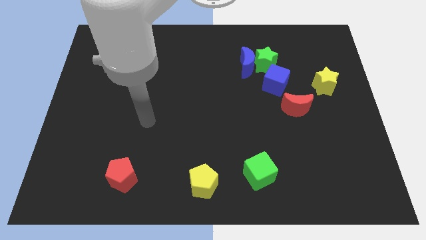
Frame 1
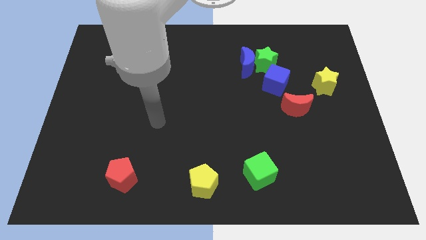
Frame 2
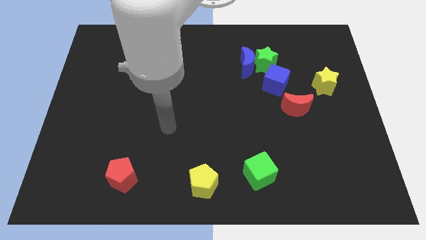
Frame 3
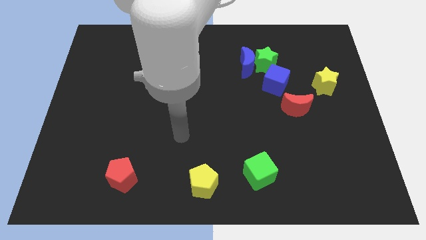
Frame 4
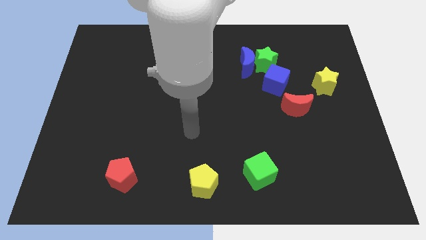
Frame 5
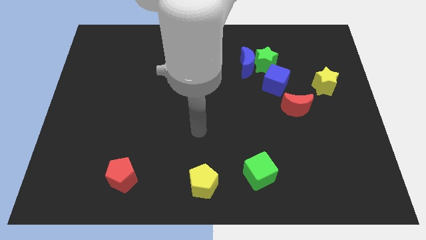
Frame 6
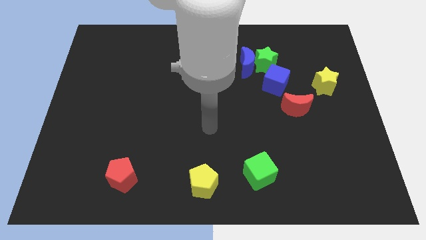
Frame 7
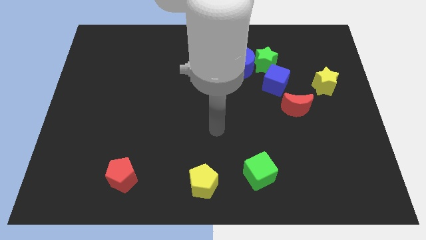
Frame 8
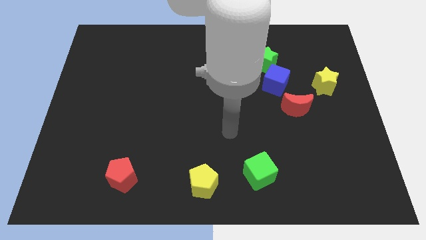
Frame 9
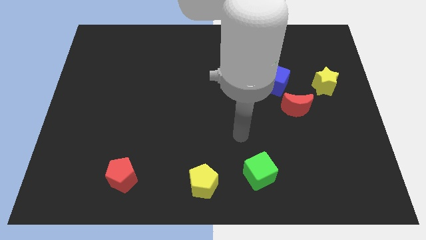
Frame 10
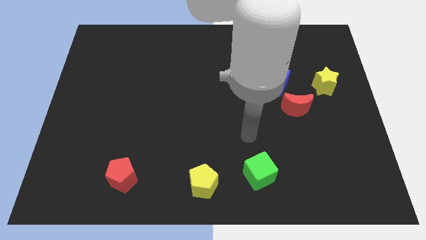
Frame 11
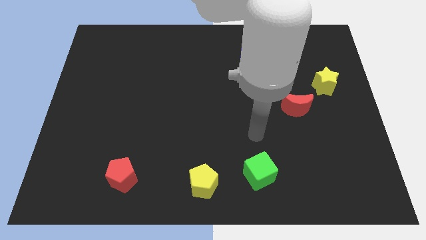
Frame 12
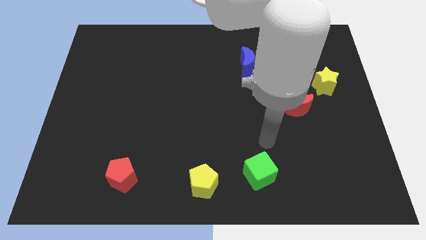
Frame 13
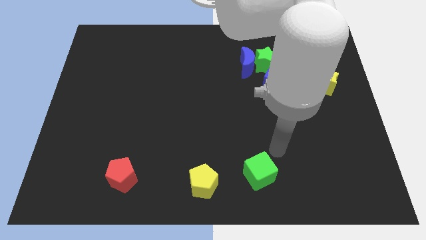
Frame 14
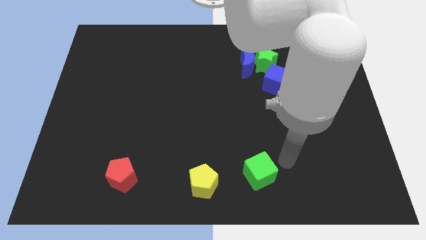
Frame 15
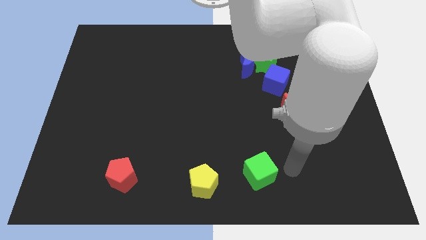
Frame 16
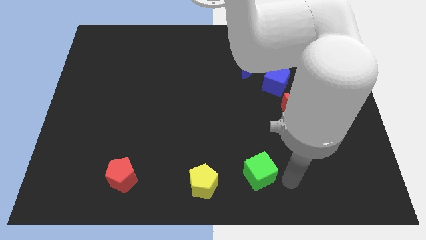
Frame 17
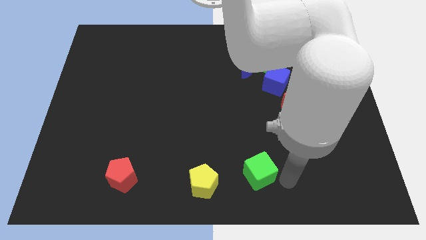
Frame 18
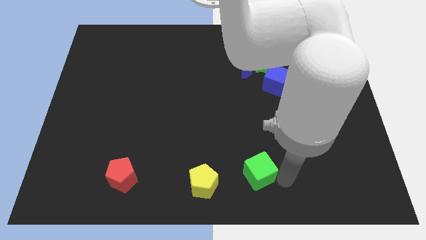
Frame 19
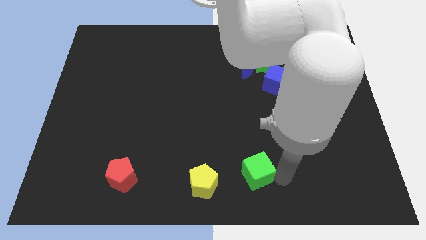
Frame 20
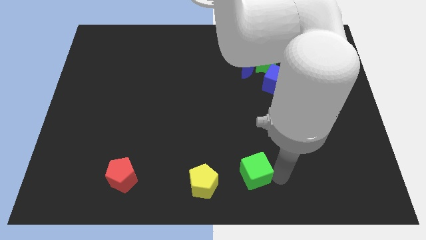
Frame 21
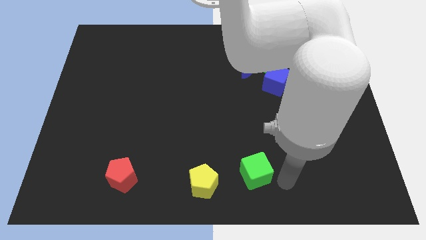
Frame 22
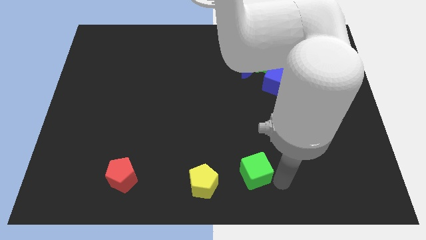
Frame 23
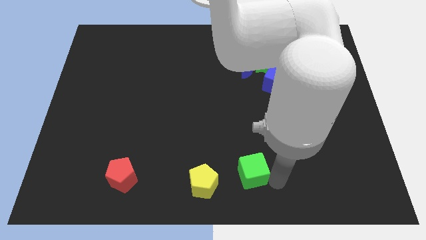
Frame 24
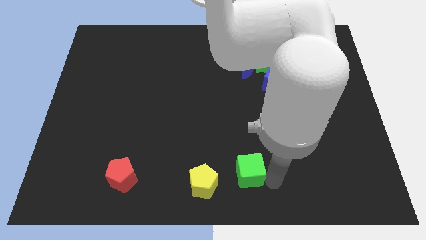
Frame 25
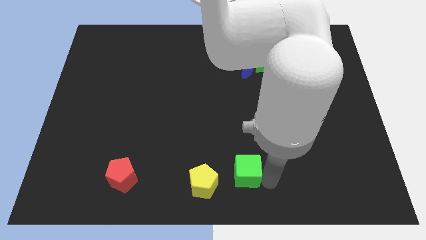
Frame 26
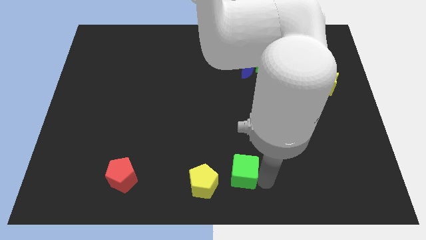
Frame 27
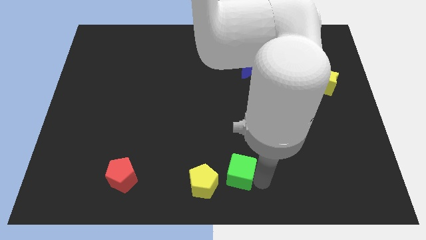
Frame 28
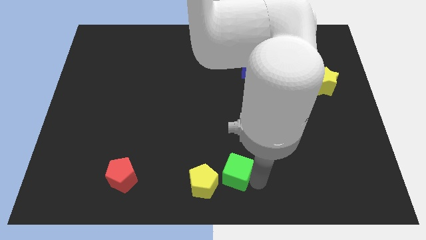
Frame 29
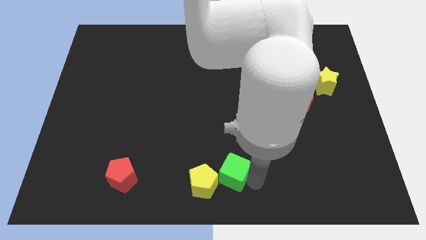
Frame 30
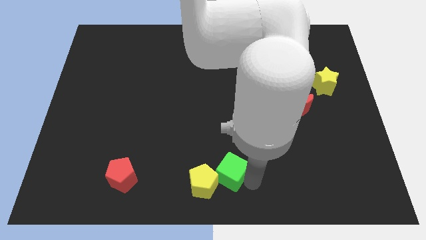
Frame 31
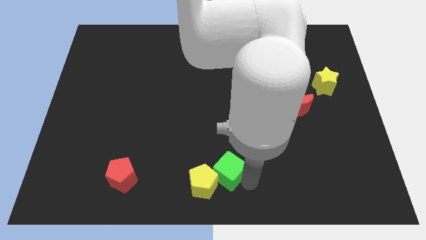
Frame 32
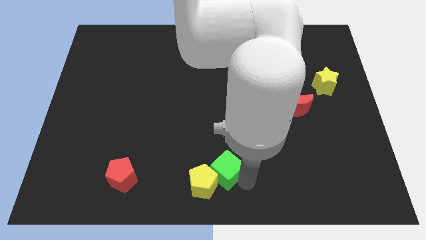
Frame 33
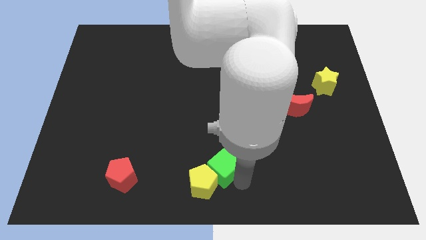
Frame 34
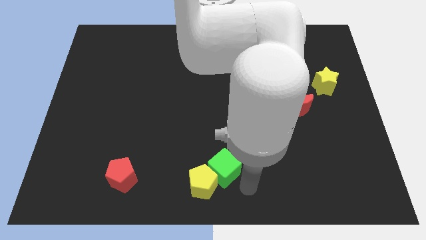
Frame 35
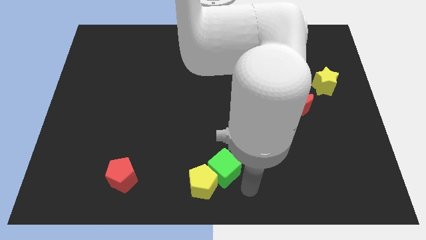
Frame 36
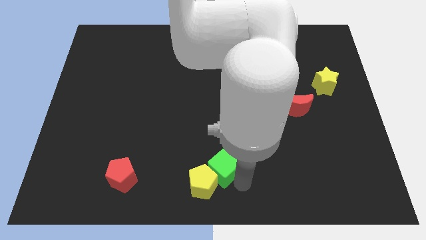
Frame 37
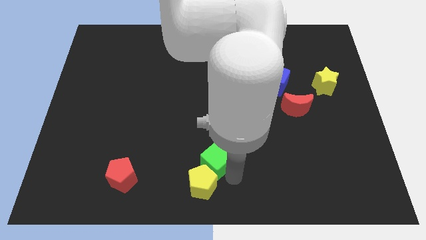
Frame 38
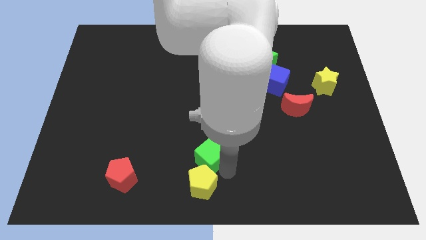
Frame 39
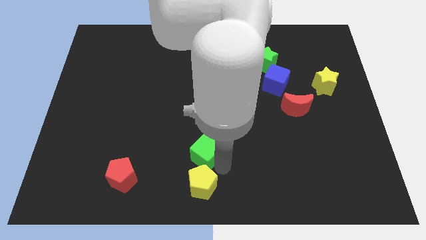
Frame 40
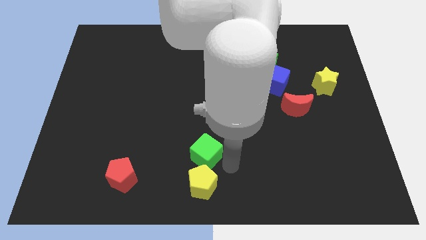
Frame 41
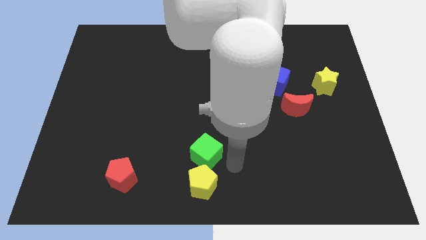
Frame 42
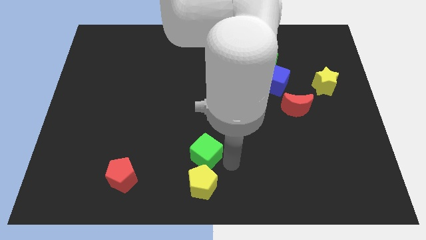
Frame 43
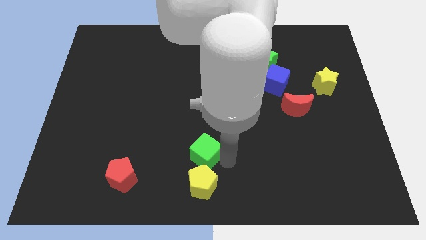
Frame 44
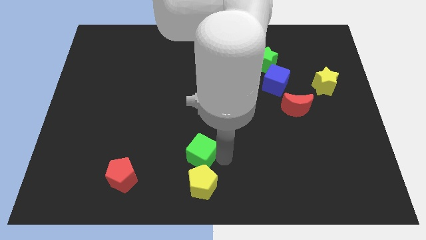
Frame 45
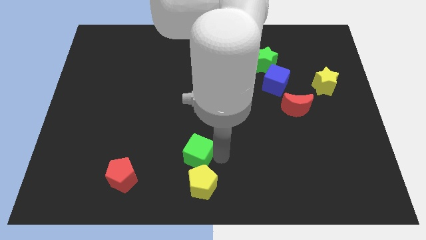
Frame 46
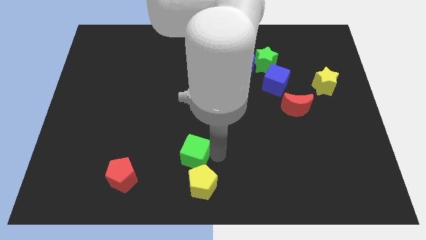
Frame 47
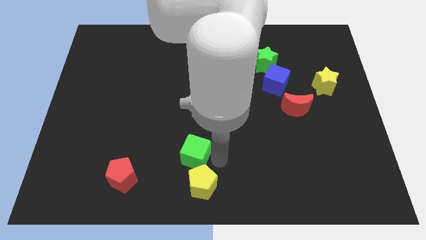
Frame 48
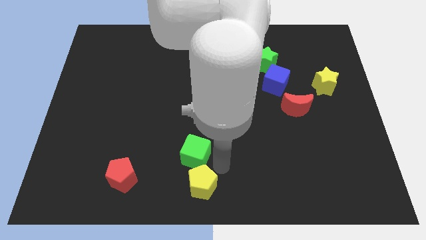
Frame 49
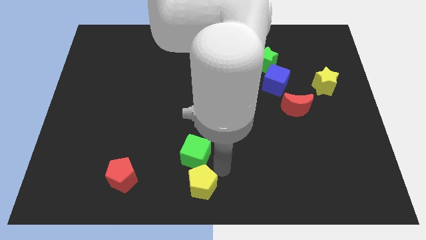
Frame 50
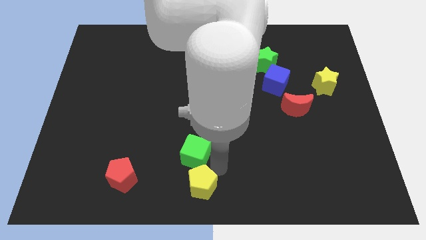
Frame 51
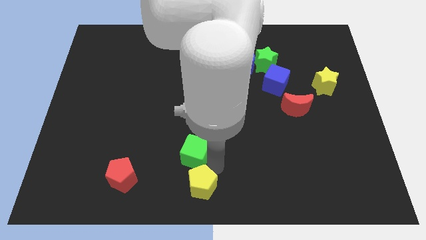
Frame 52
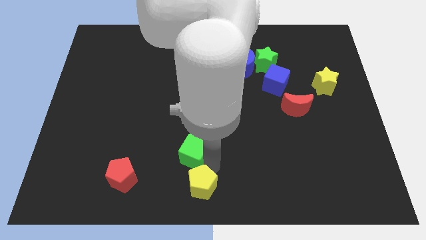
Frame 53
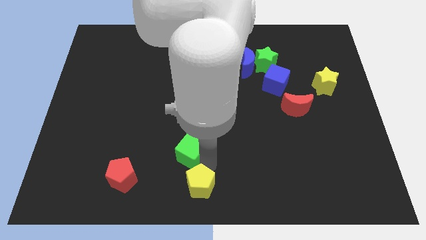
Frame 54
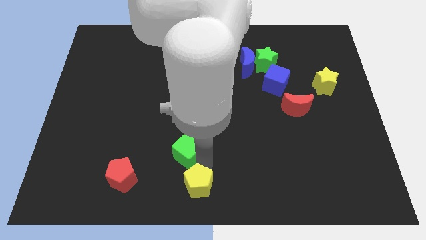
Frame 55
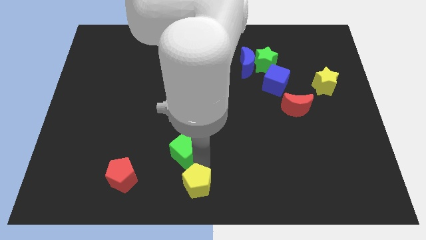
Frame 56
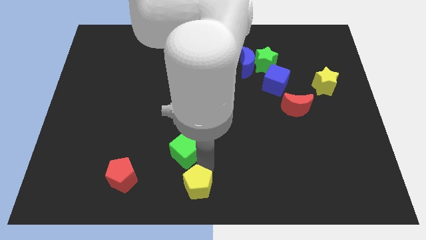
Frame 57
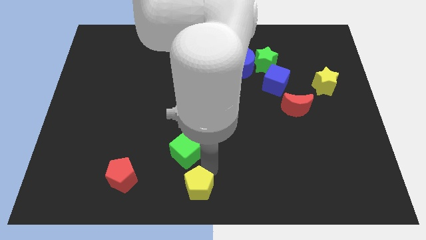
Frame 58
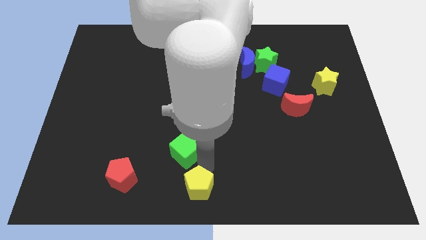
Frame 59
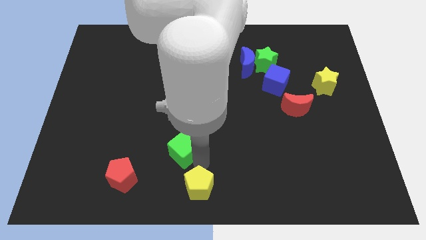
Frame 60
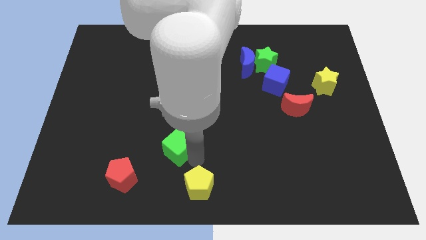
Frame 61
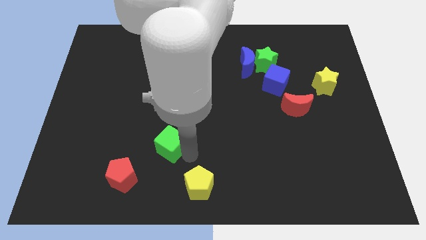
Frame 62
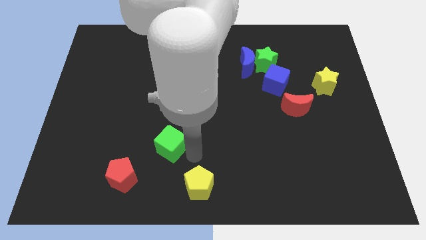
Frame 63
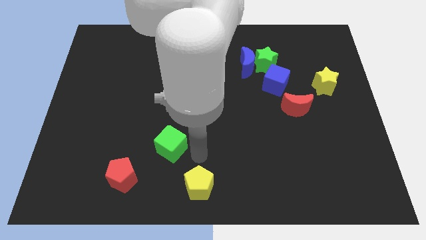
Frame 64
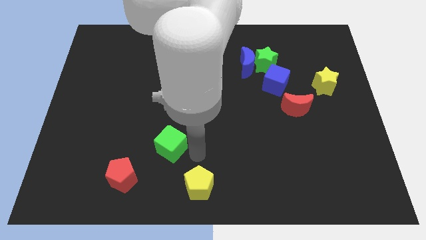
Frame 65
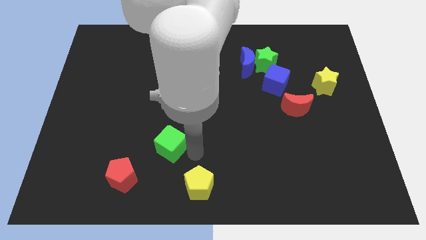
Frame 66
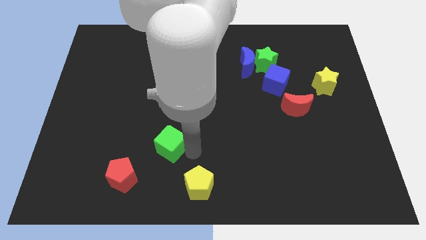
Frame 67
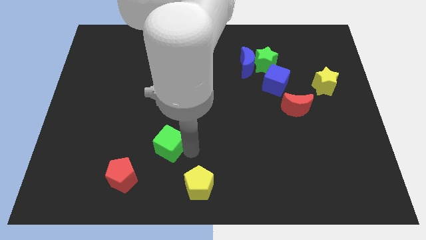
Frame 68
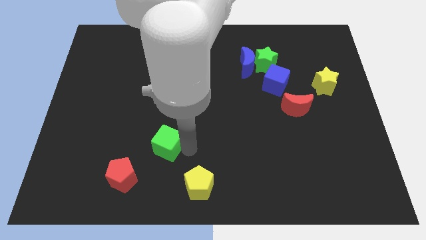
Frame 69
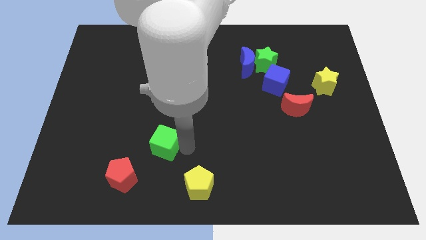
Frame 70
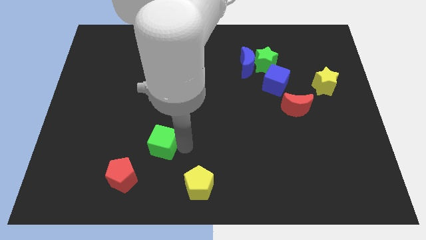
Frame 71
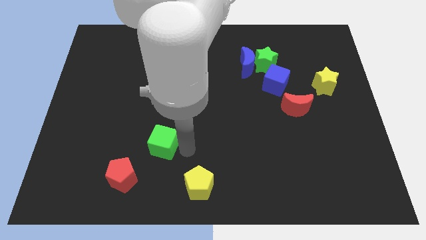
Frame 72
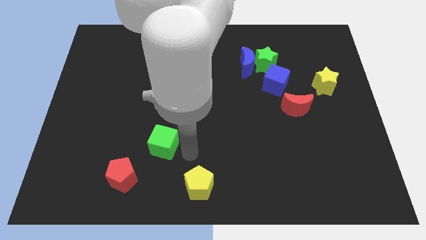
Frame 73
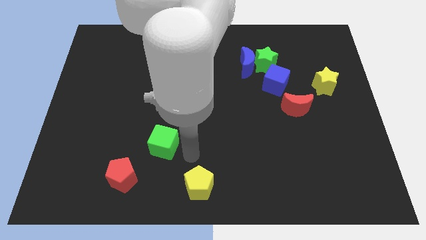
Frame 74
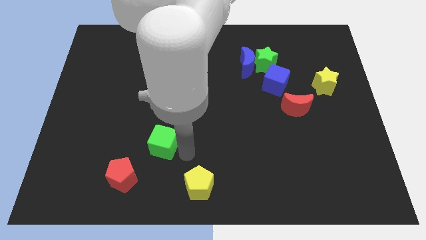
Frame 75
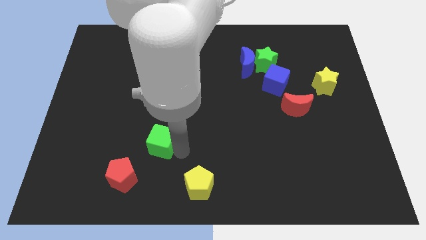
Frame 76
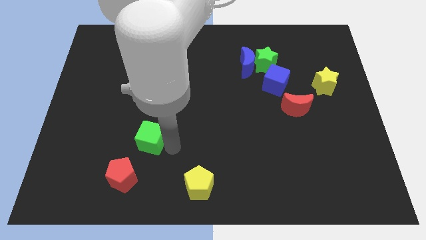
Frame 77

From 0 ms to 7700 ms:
put the green cube above the red pentagon

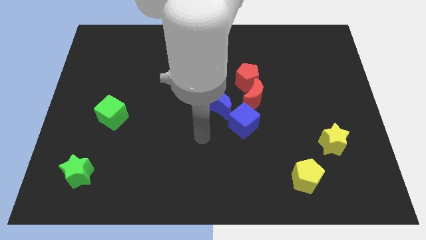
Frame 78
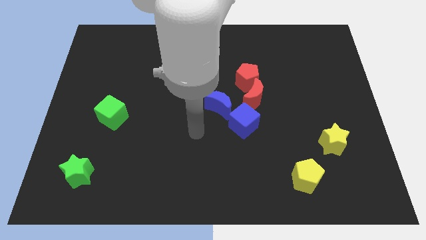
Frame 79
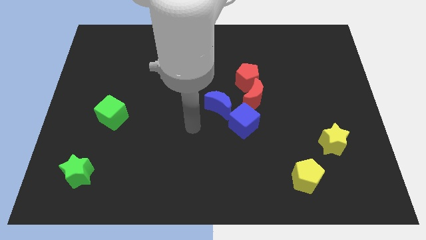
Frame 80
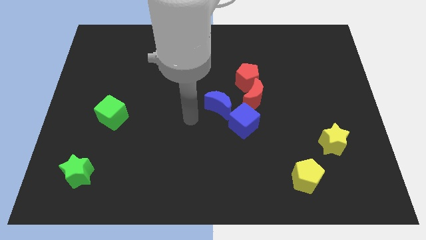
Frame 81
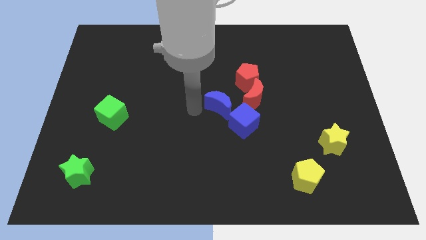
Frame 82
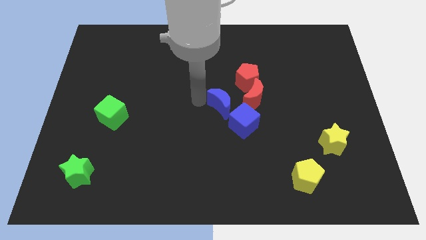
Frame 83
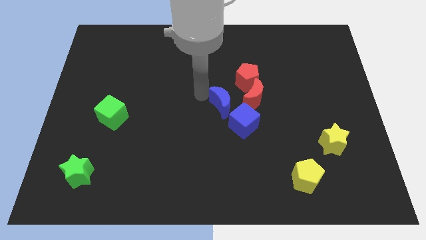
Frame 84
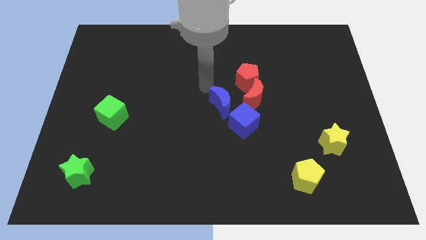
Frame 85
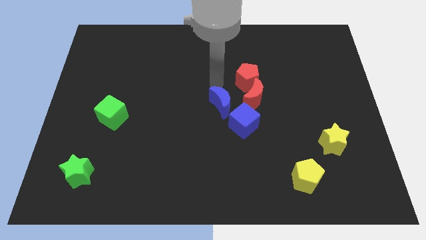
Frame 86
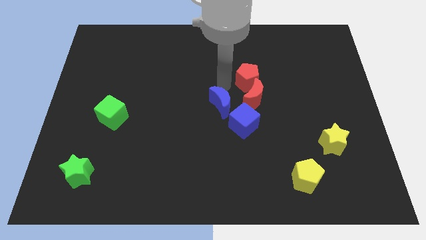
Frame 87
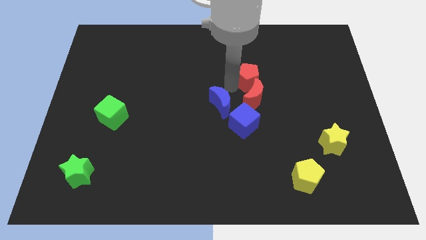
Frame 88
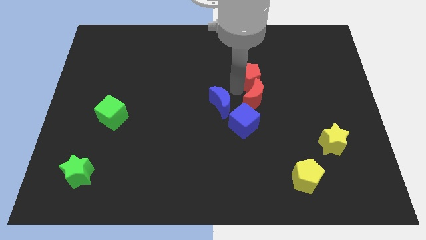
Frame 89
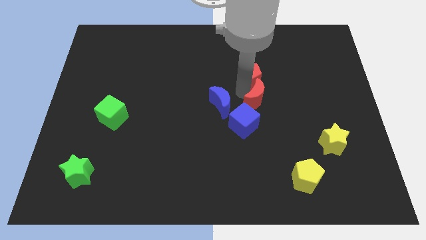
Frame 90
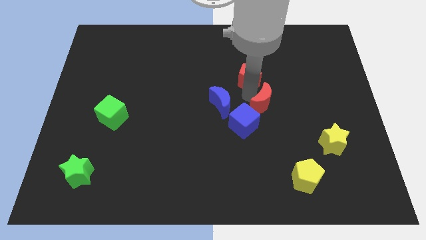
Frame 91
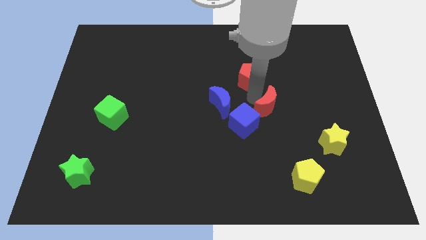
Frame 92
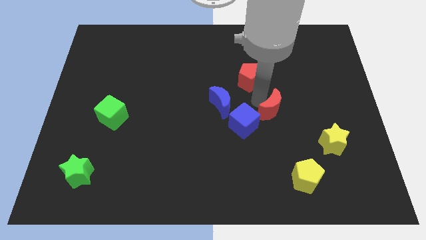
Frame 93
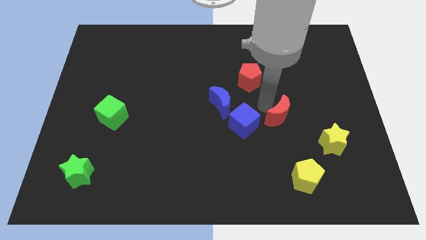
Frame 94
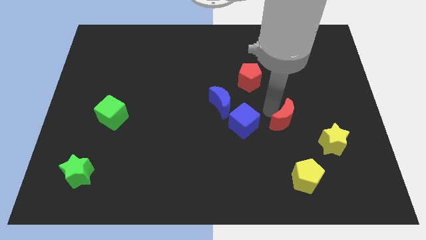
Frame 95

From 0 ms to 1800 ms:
move the red moon to the top left of the yellow star
